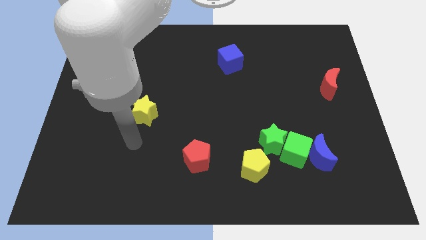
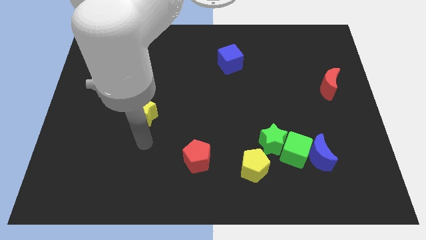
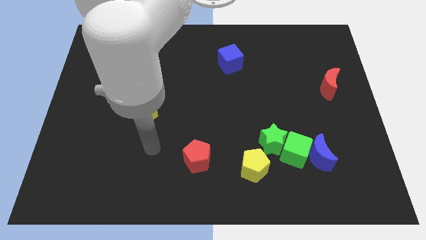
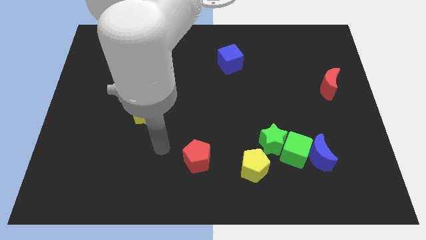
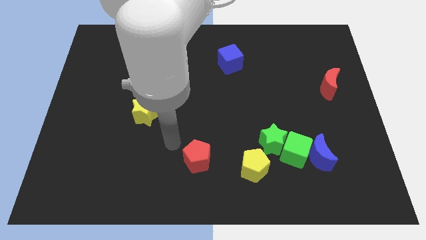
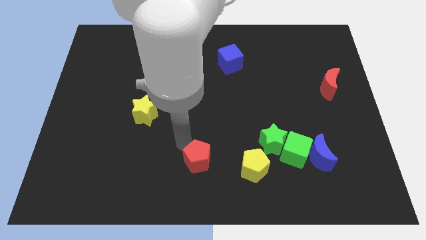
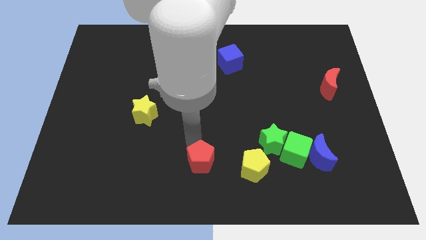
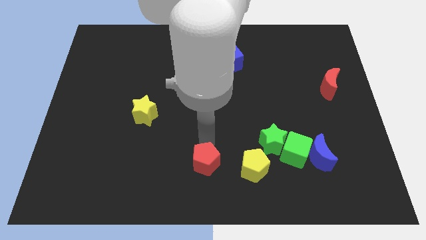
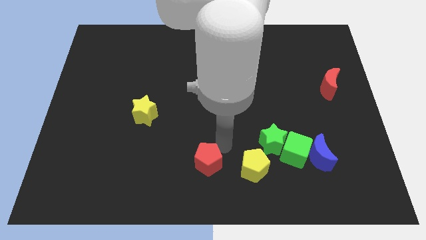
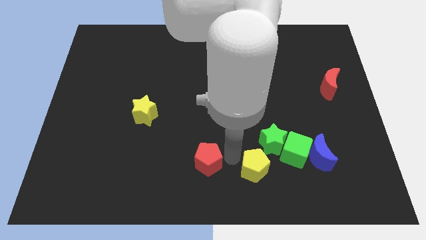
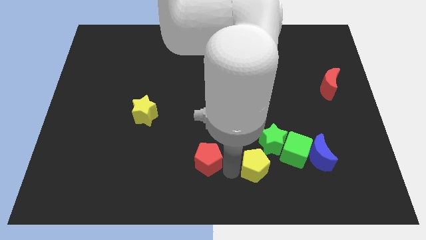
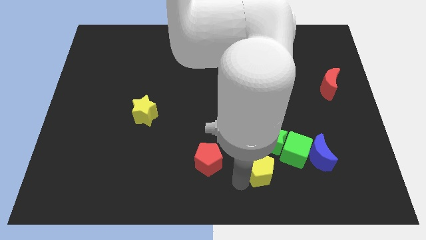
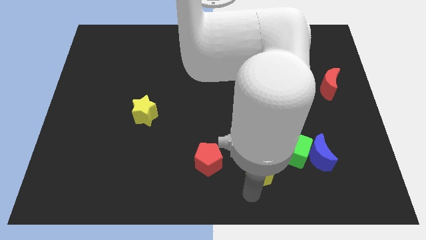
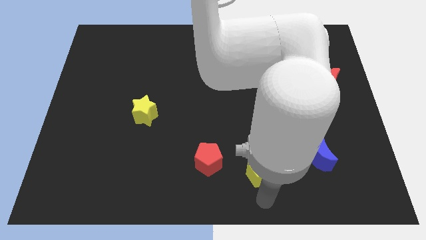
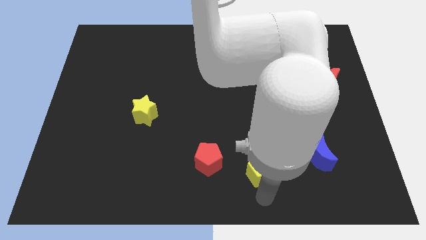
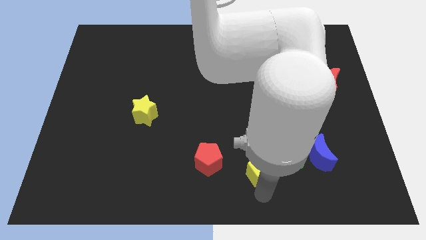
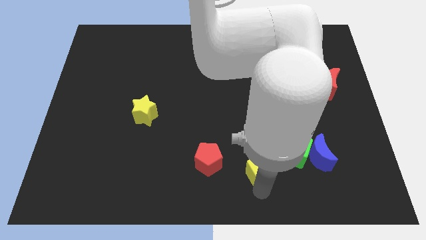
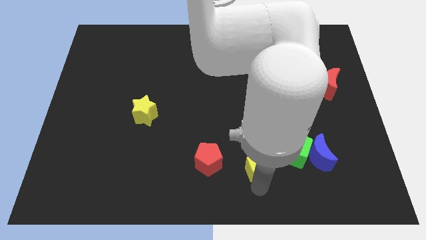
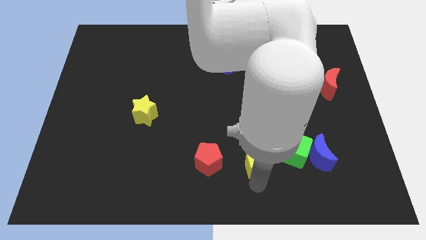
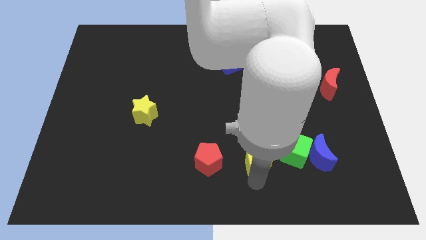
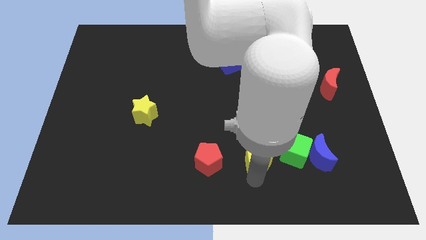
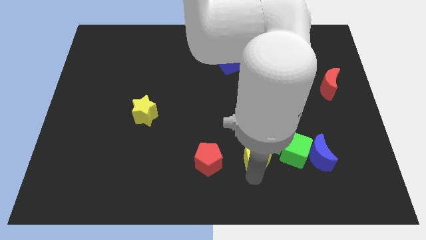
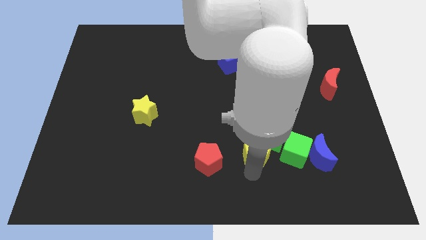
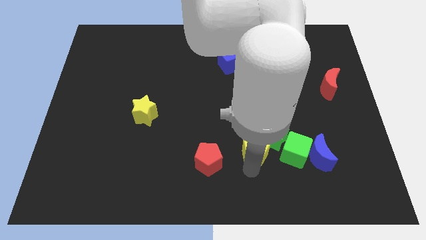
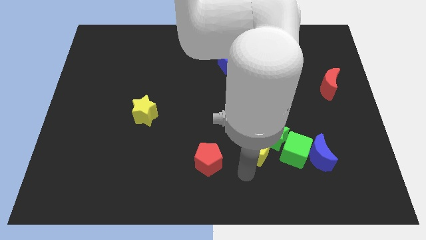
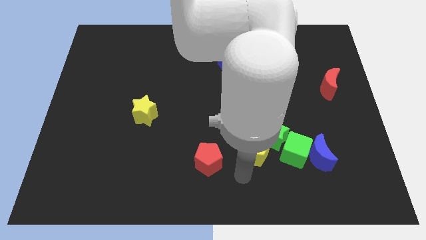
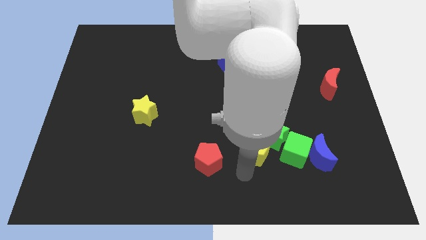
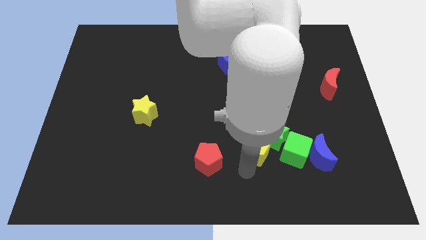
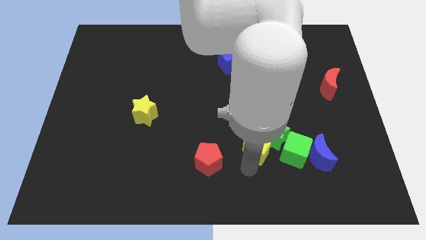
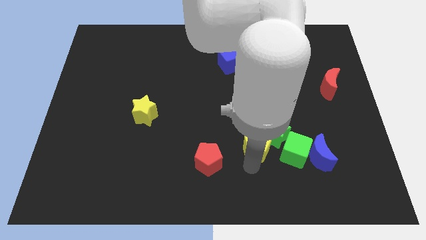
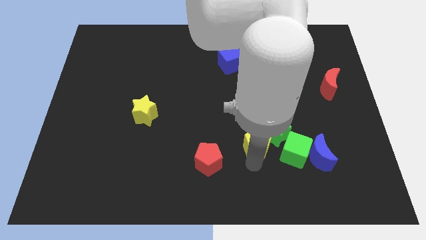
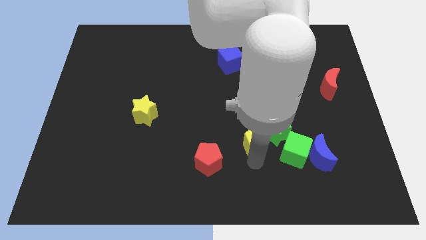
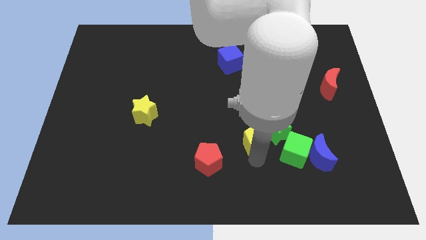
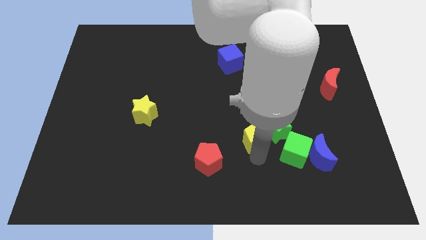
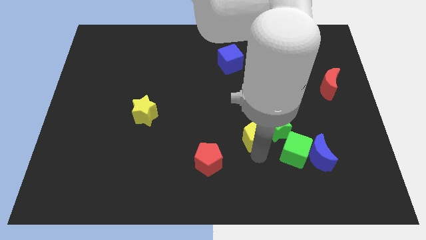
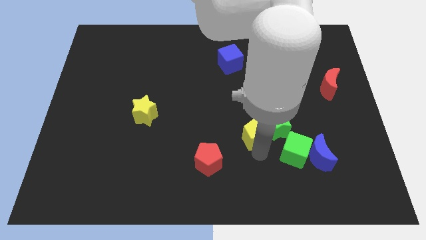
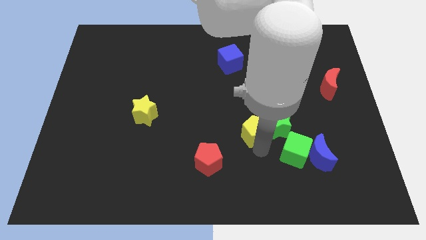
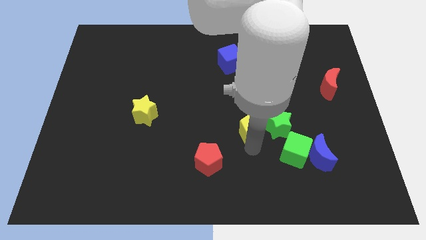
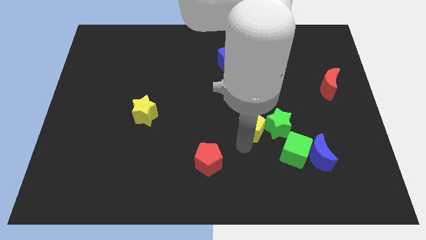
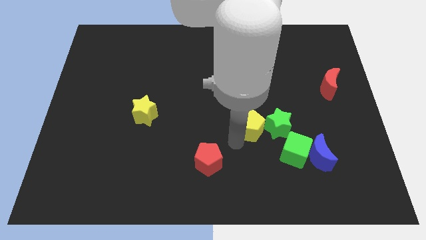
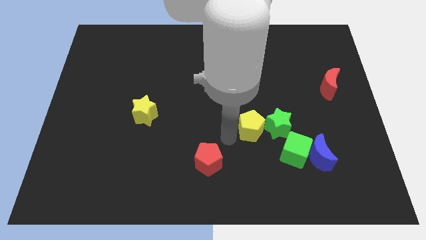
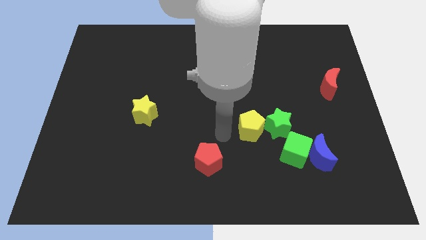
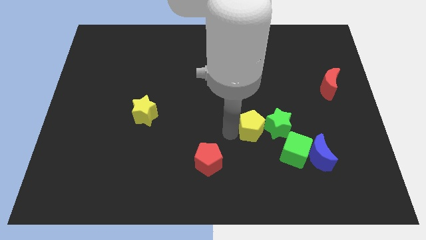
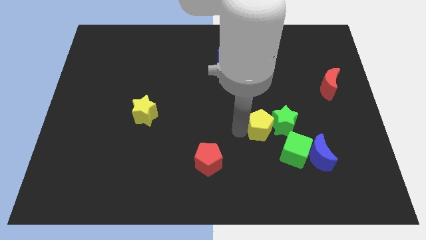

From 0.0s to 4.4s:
slightly slide the yellow pentagon diagonally upwards and to the right

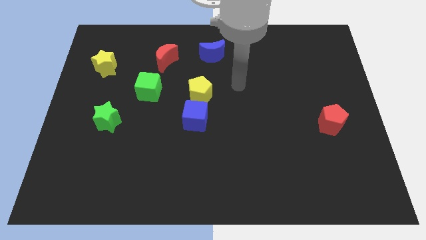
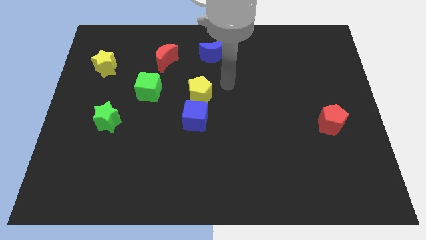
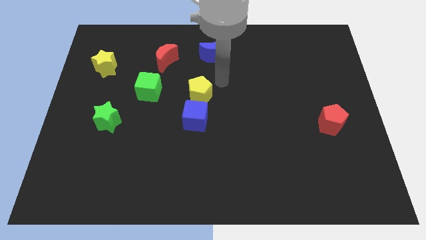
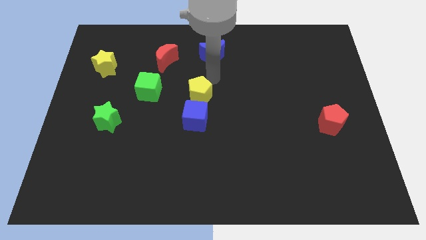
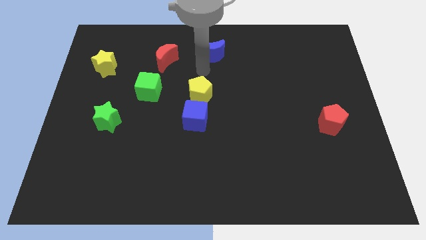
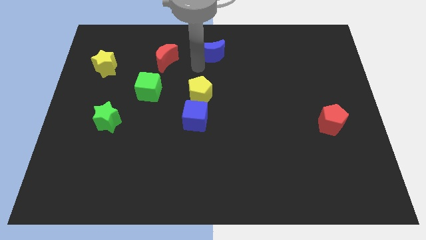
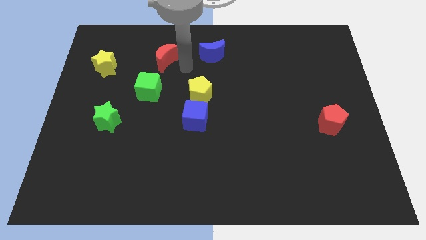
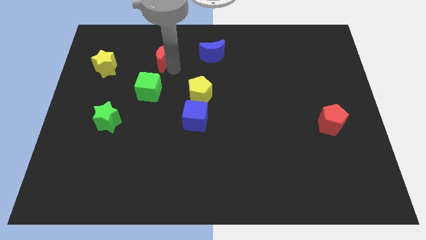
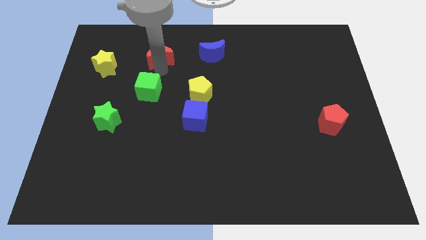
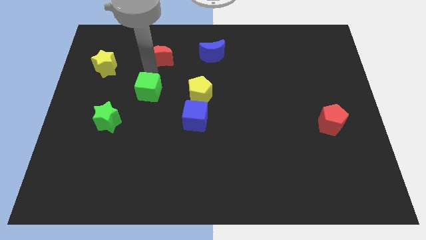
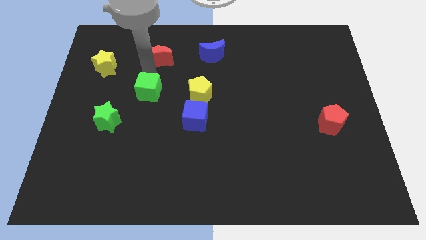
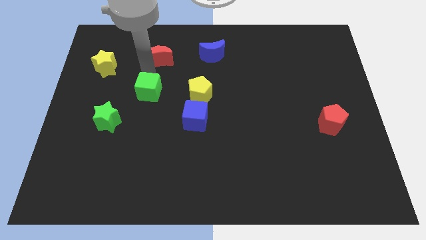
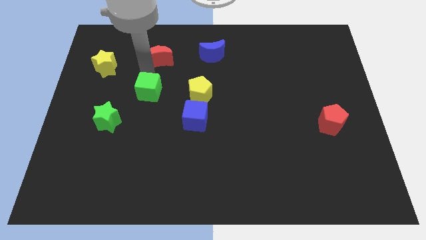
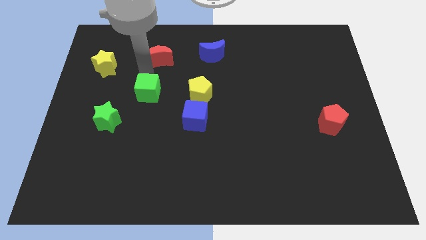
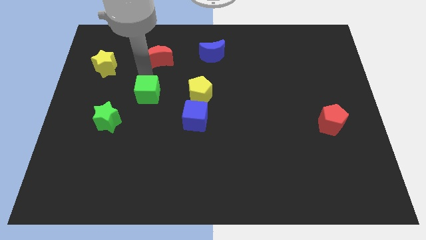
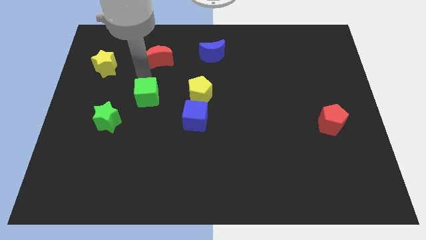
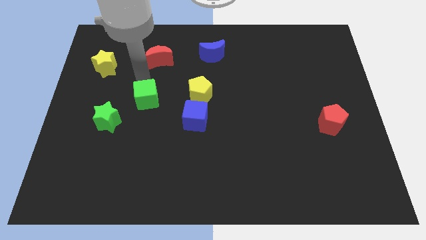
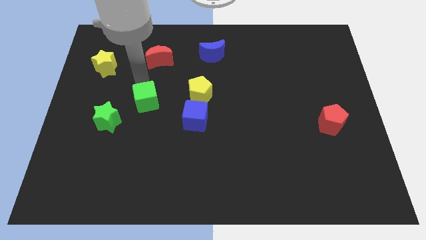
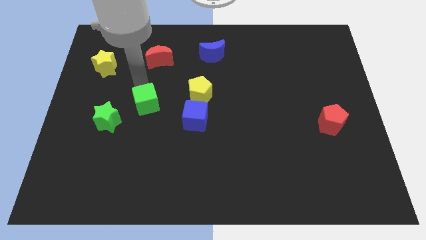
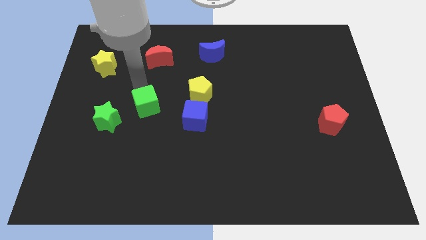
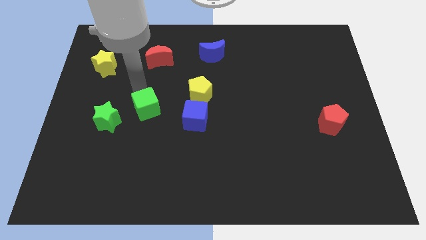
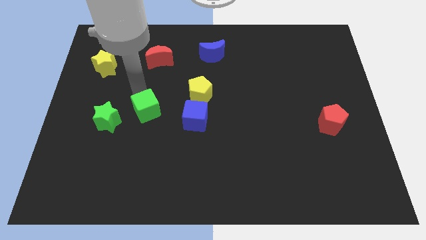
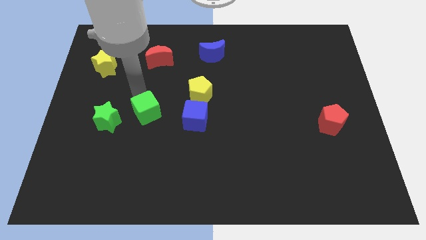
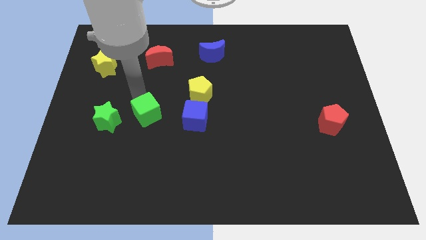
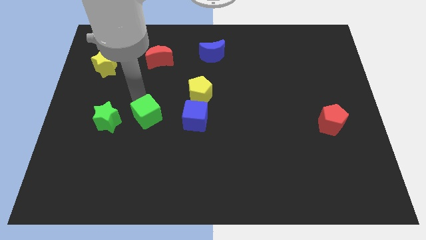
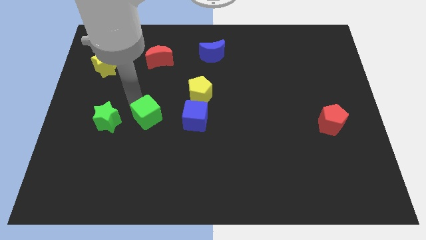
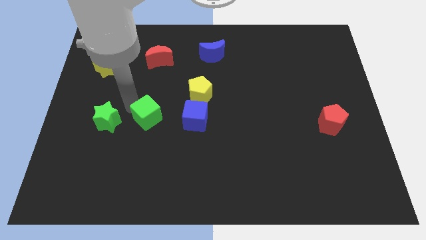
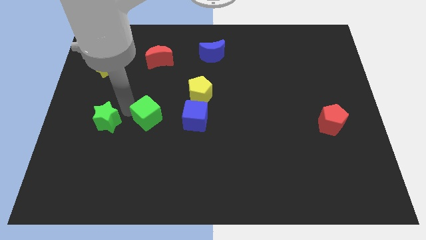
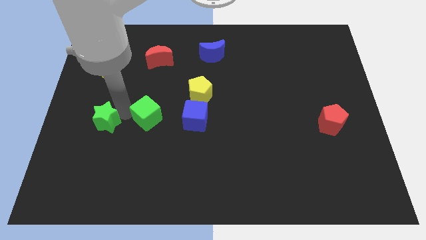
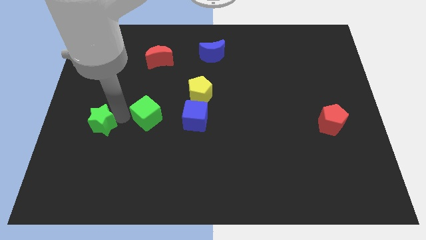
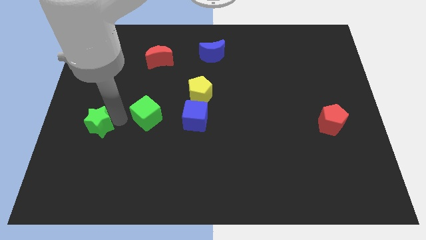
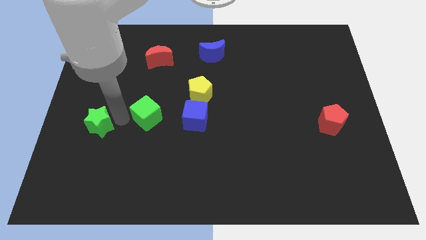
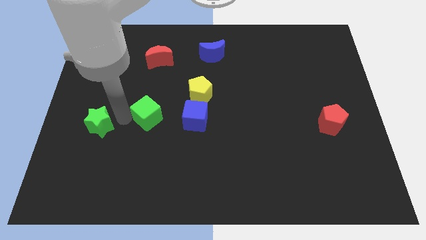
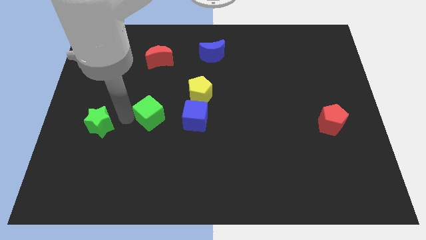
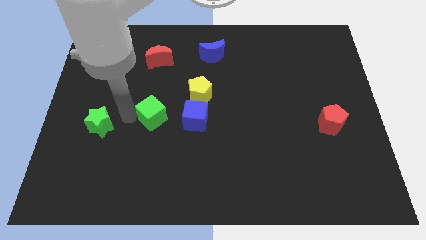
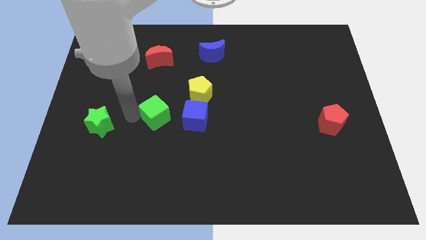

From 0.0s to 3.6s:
slide the green cube down and to the right somewhat

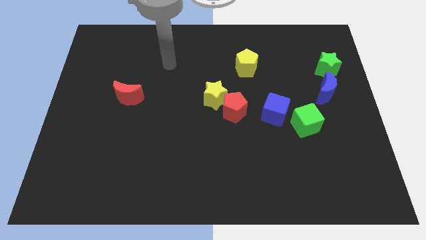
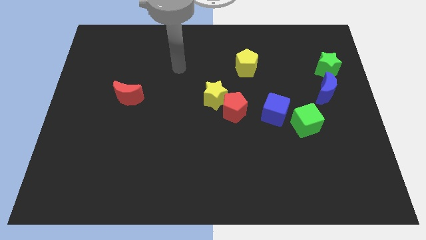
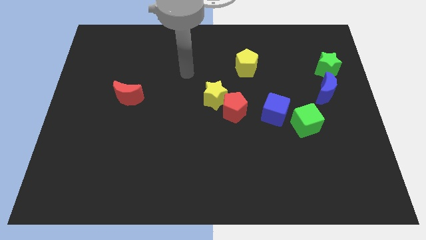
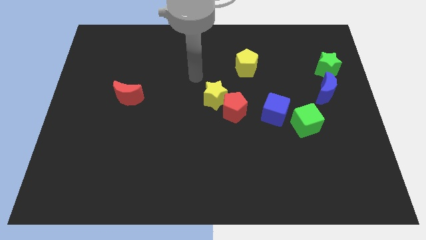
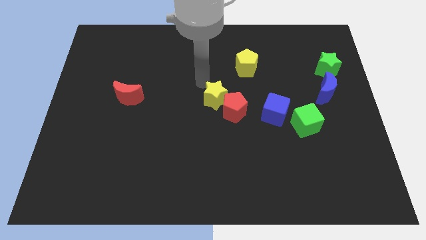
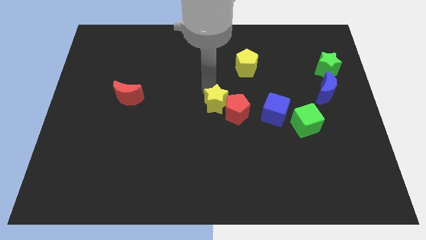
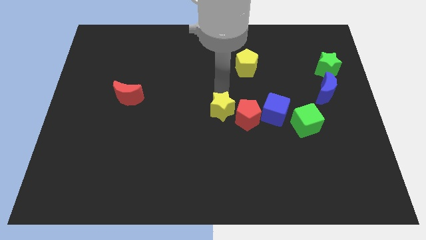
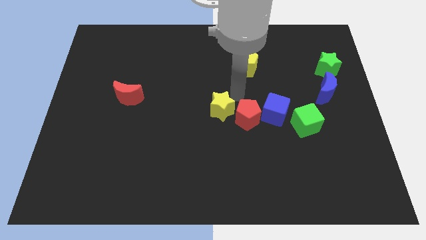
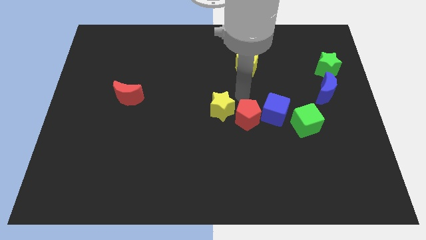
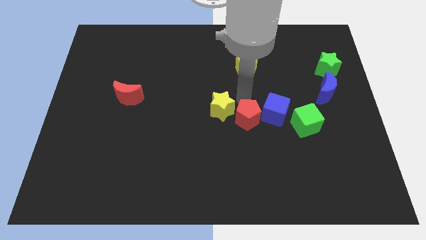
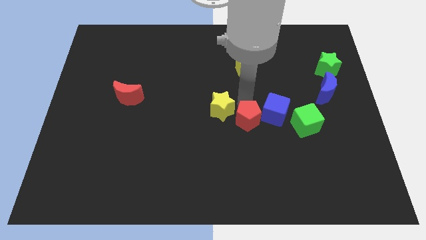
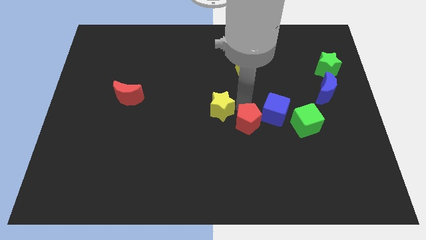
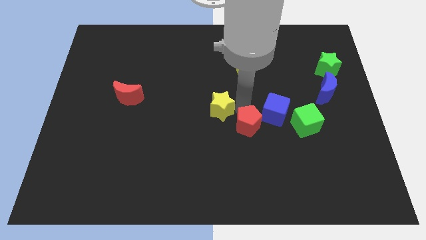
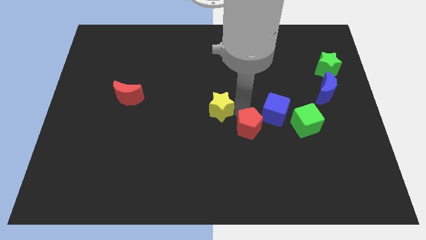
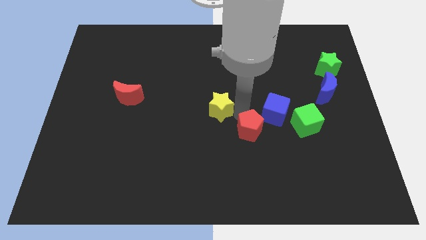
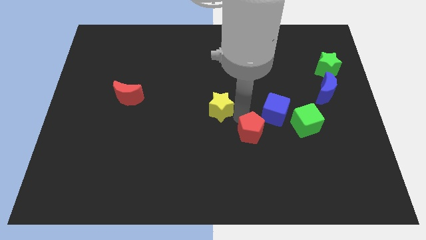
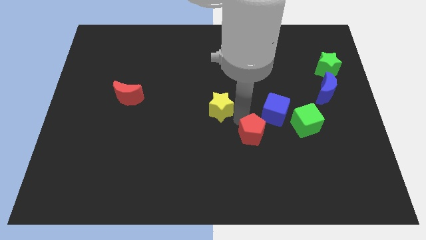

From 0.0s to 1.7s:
slightly slide the red pentagon down and then to the right
